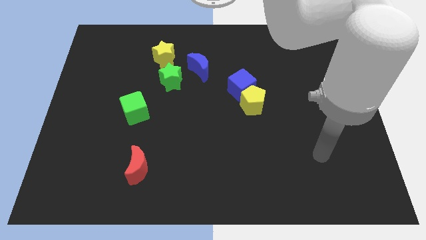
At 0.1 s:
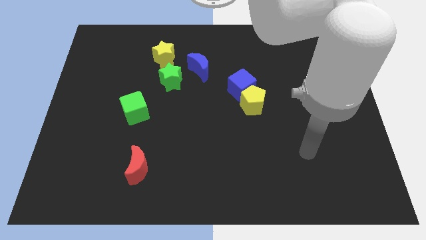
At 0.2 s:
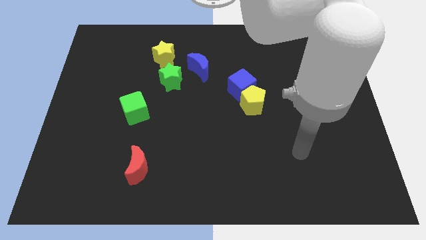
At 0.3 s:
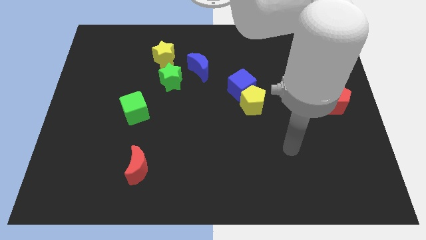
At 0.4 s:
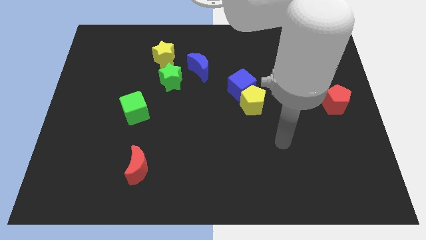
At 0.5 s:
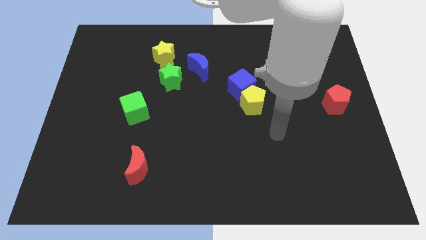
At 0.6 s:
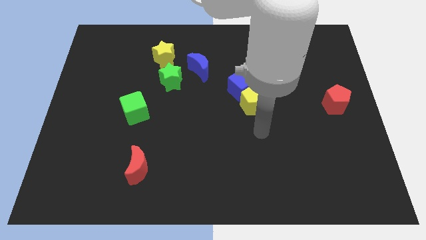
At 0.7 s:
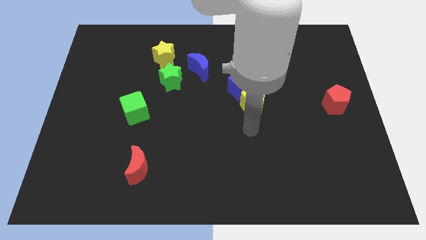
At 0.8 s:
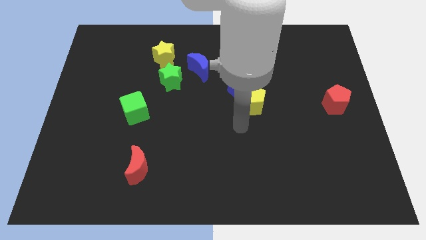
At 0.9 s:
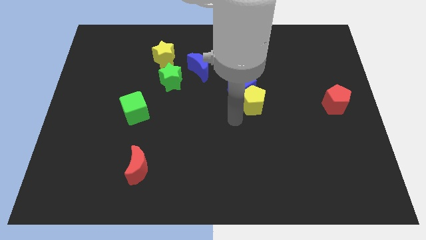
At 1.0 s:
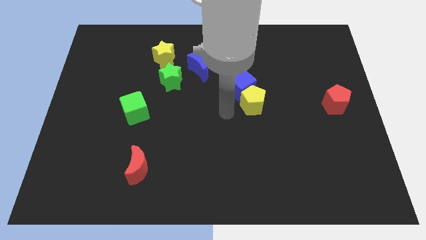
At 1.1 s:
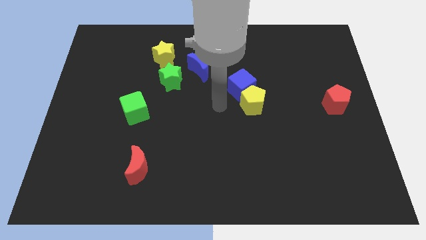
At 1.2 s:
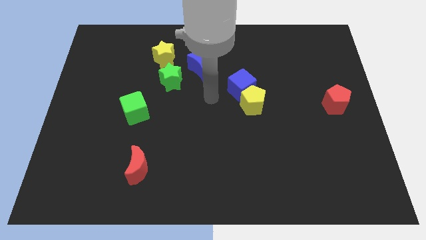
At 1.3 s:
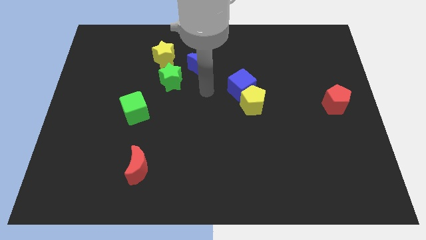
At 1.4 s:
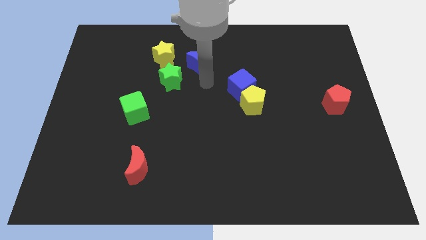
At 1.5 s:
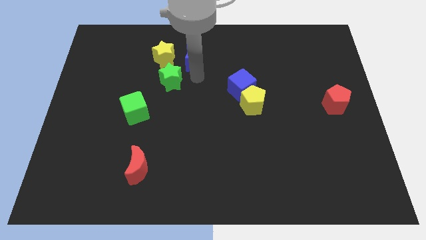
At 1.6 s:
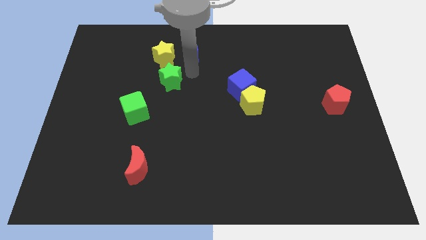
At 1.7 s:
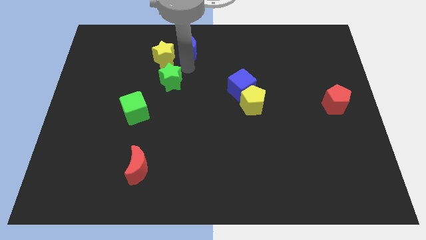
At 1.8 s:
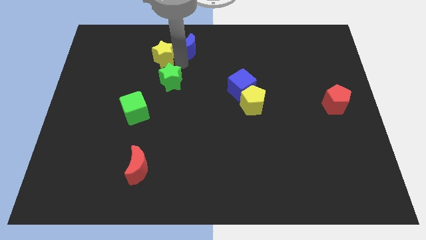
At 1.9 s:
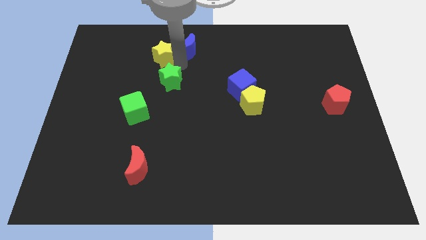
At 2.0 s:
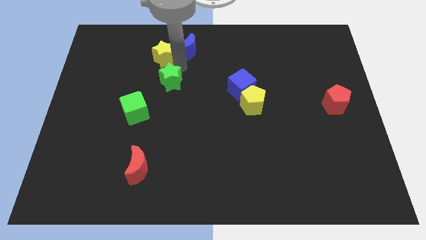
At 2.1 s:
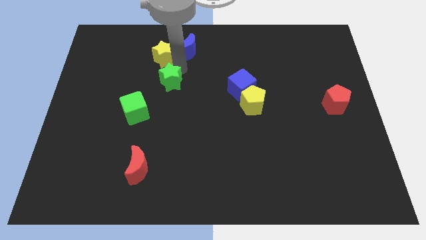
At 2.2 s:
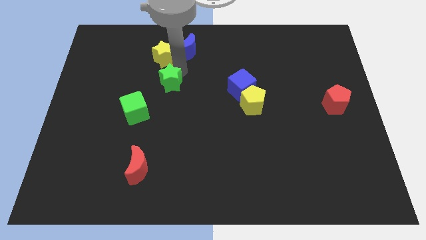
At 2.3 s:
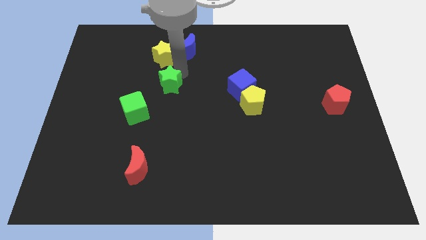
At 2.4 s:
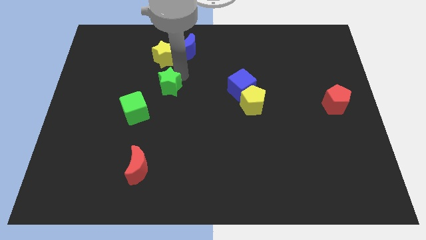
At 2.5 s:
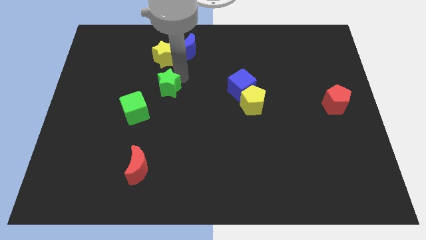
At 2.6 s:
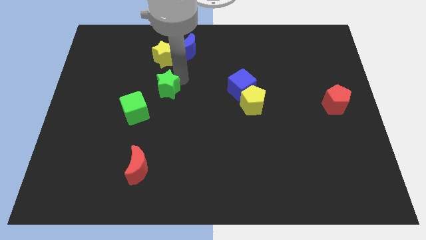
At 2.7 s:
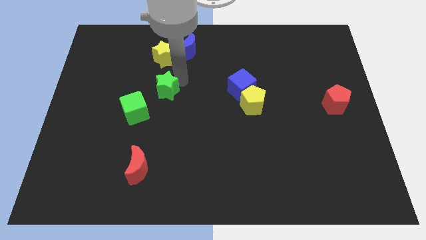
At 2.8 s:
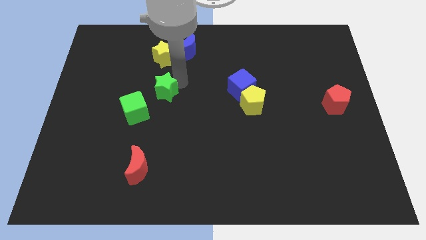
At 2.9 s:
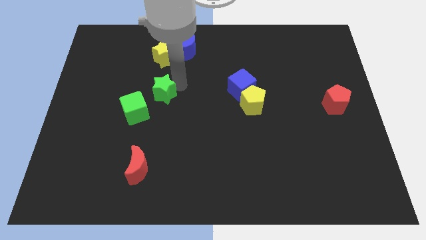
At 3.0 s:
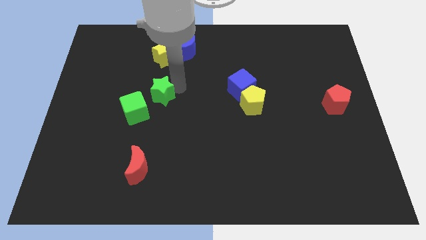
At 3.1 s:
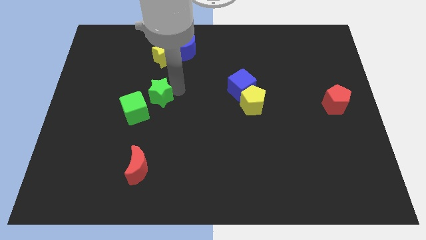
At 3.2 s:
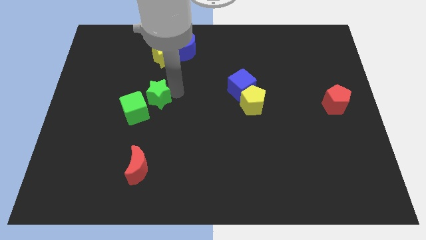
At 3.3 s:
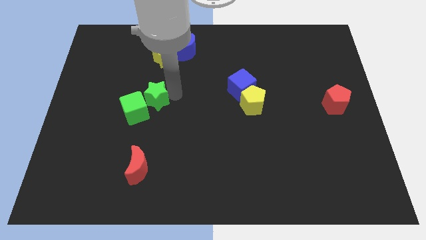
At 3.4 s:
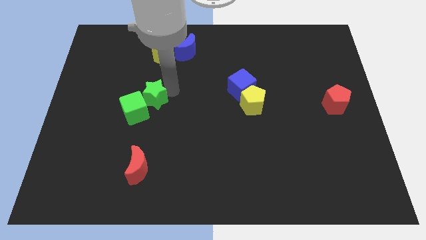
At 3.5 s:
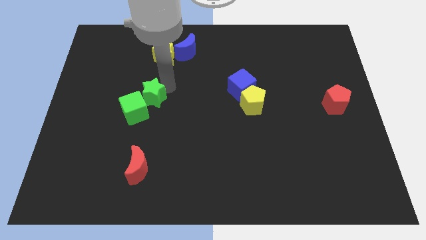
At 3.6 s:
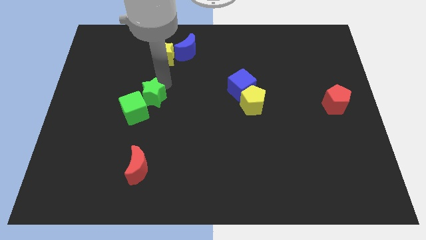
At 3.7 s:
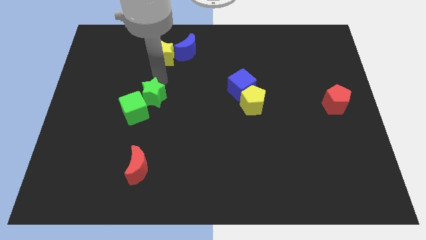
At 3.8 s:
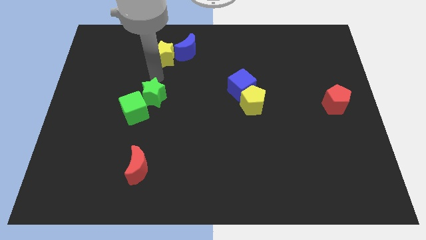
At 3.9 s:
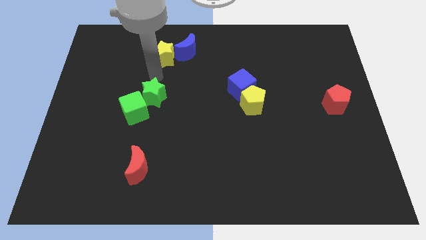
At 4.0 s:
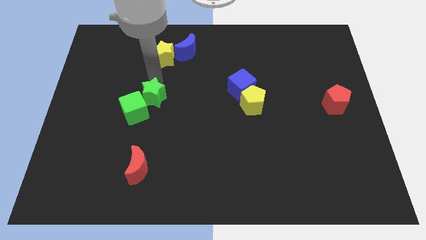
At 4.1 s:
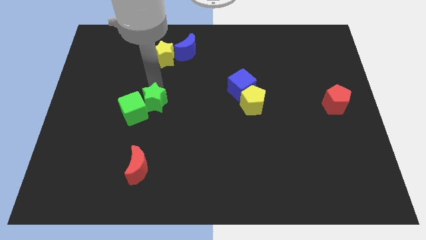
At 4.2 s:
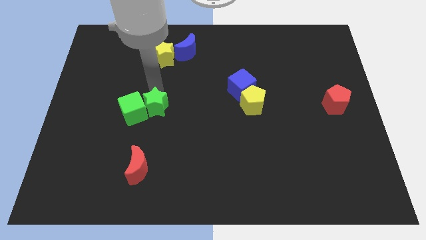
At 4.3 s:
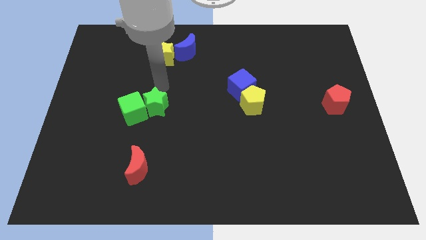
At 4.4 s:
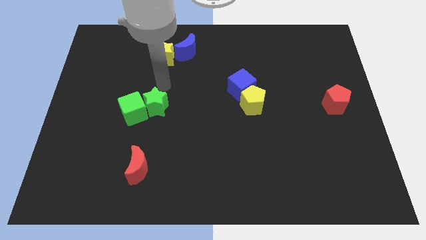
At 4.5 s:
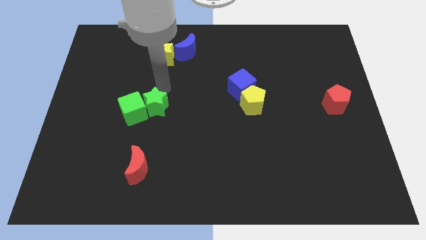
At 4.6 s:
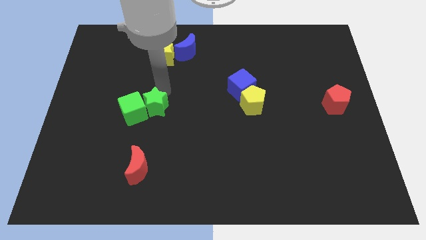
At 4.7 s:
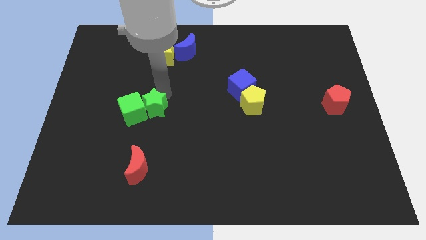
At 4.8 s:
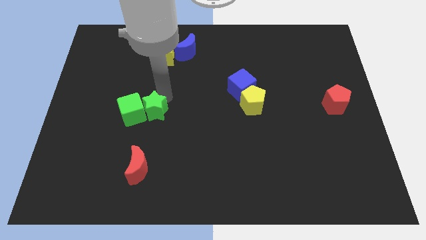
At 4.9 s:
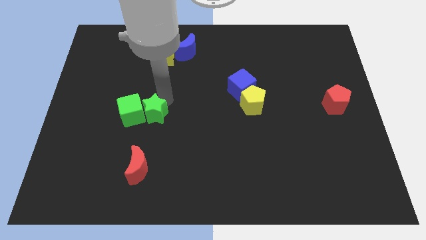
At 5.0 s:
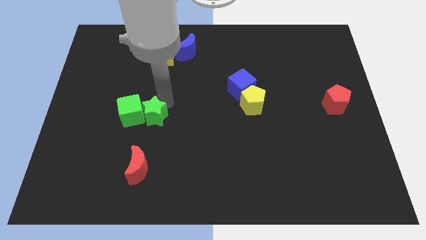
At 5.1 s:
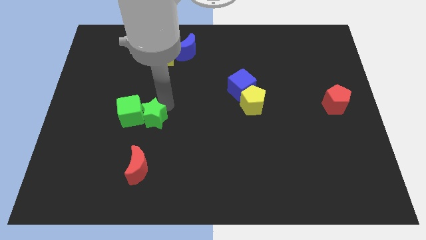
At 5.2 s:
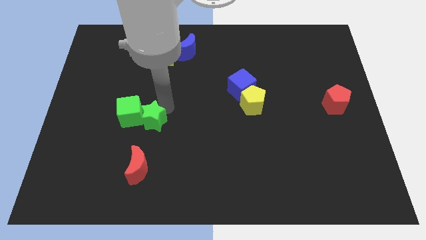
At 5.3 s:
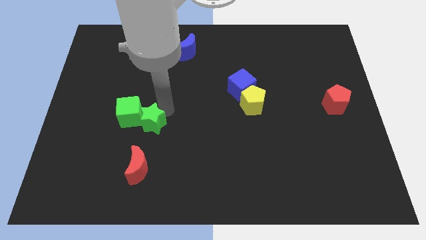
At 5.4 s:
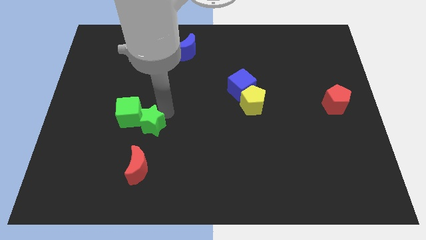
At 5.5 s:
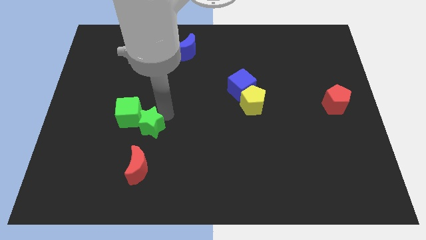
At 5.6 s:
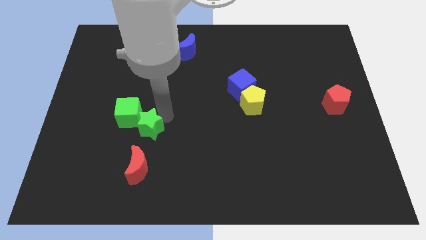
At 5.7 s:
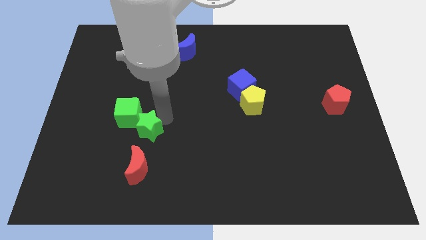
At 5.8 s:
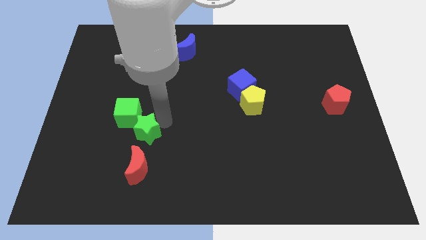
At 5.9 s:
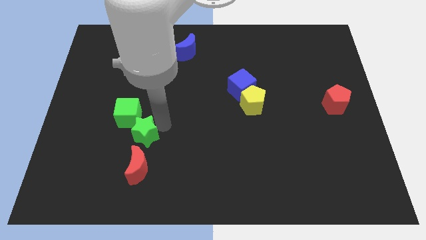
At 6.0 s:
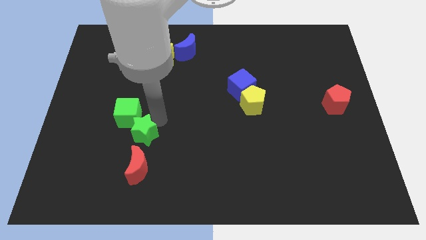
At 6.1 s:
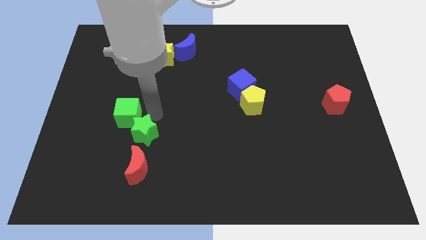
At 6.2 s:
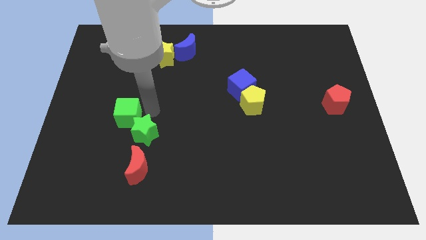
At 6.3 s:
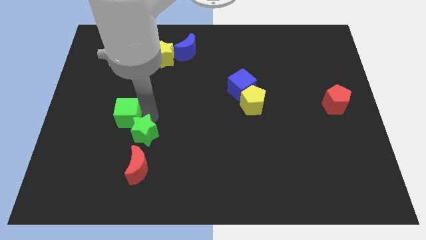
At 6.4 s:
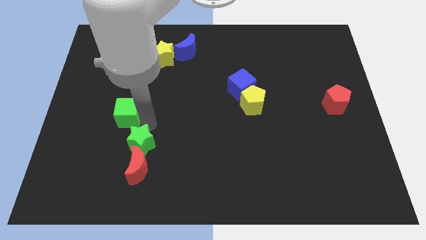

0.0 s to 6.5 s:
put the green star next to the red moon

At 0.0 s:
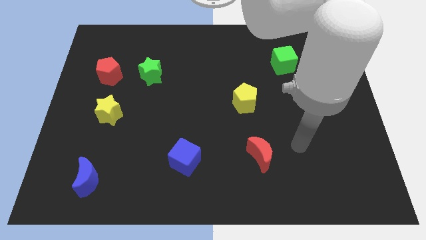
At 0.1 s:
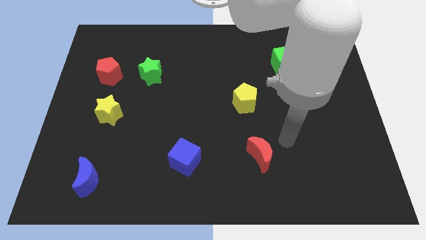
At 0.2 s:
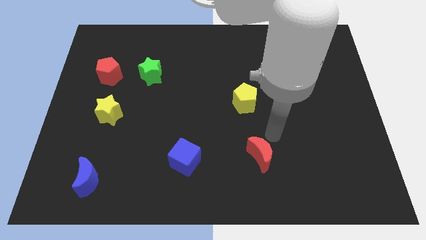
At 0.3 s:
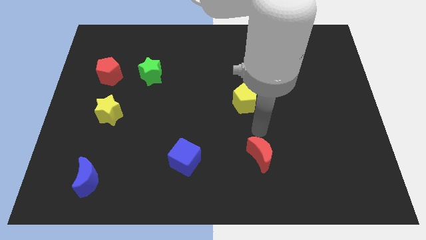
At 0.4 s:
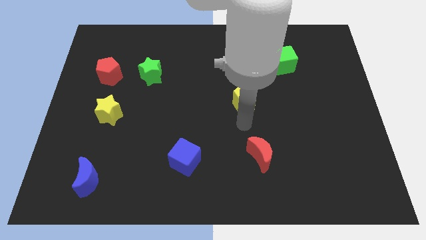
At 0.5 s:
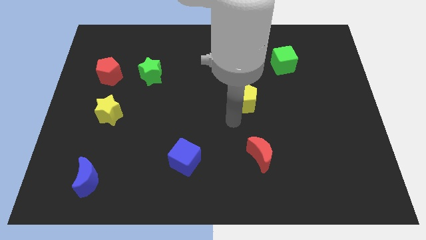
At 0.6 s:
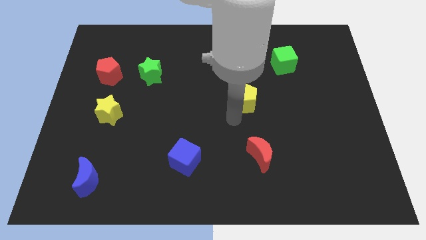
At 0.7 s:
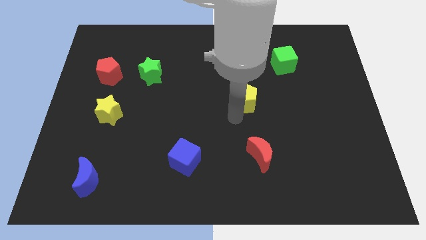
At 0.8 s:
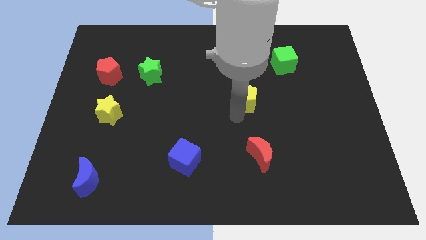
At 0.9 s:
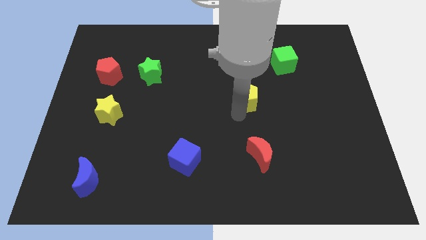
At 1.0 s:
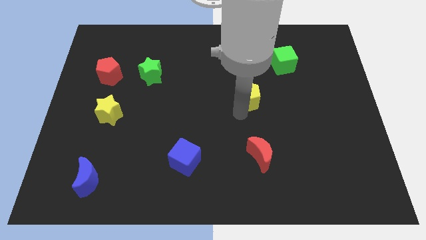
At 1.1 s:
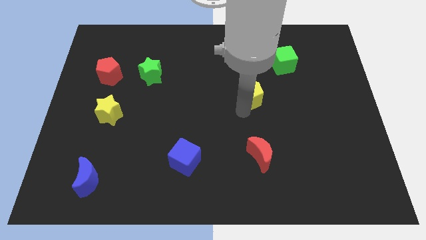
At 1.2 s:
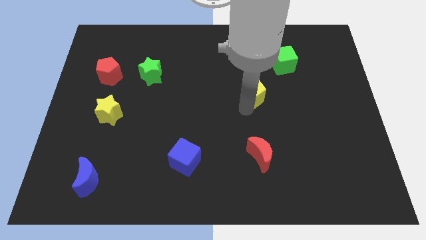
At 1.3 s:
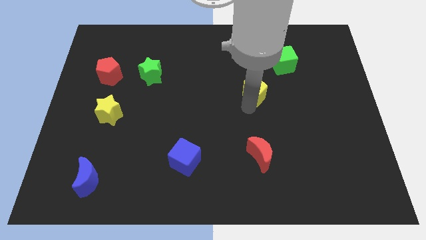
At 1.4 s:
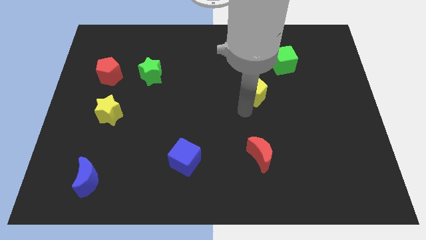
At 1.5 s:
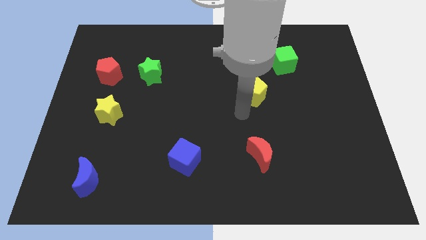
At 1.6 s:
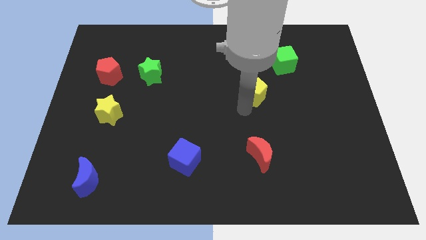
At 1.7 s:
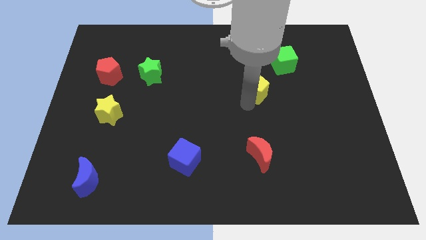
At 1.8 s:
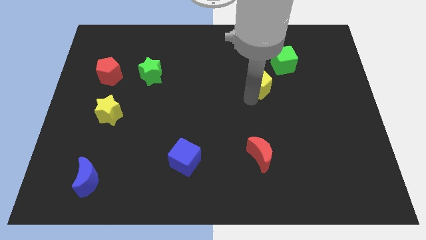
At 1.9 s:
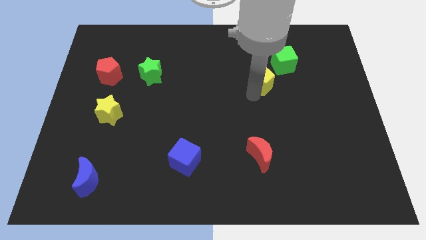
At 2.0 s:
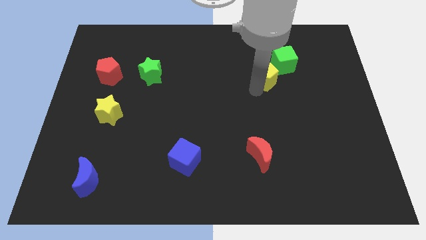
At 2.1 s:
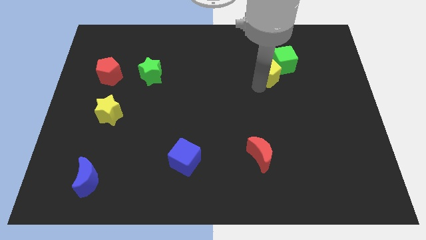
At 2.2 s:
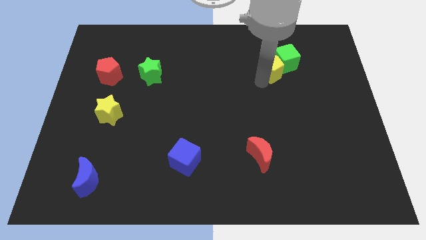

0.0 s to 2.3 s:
put the yellow pentagon to the green cube
